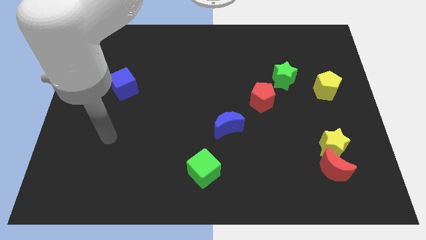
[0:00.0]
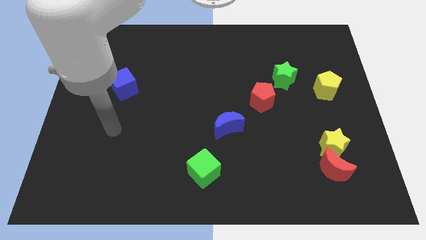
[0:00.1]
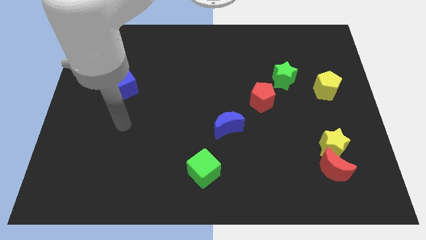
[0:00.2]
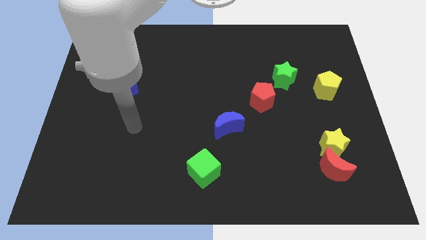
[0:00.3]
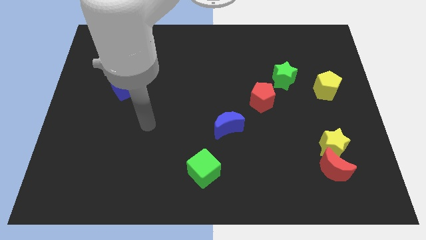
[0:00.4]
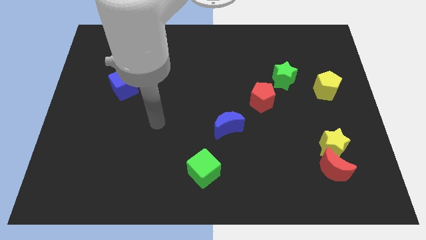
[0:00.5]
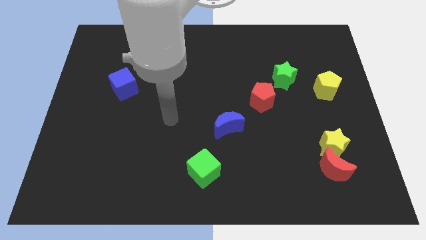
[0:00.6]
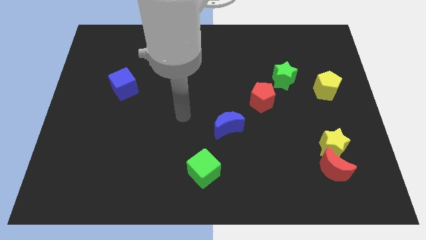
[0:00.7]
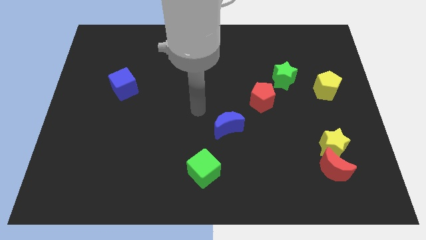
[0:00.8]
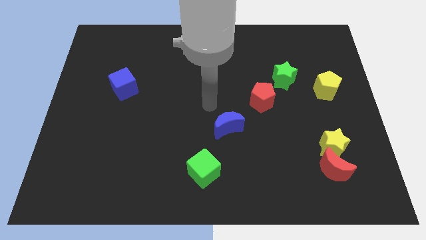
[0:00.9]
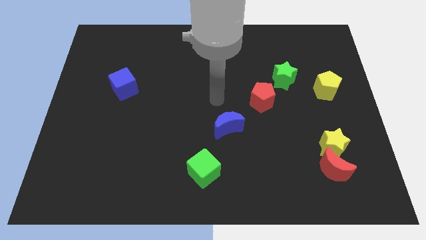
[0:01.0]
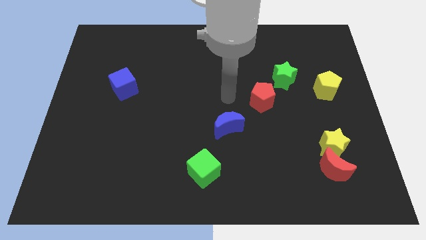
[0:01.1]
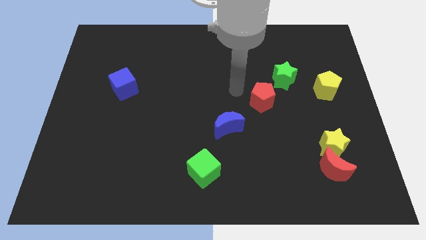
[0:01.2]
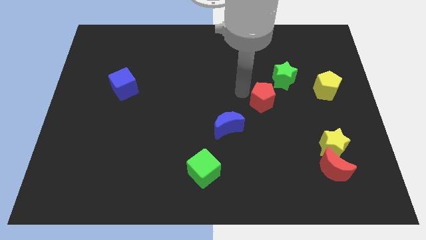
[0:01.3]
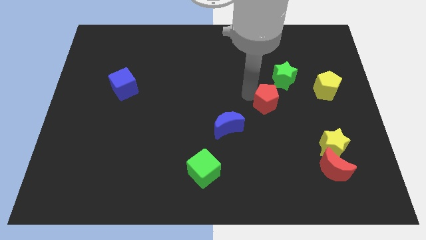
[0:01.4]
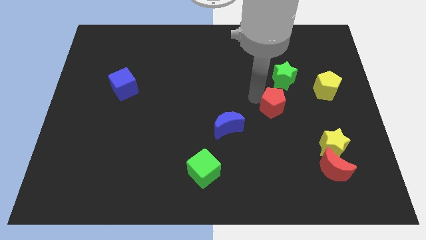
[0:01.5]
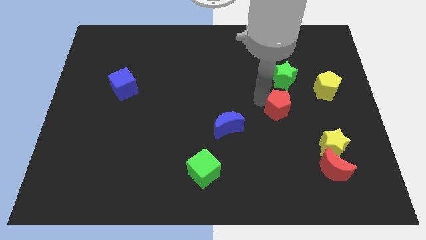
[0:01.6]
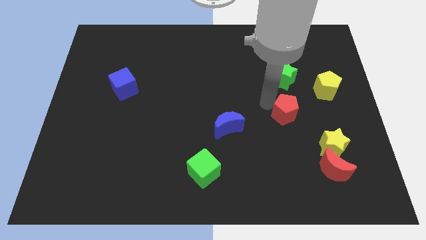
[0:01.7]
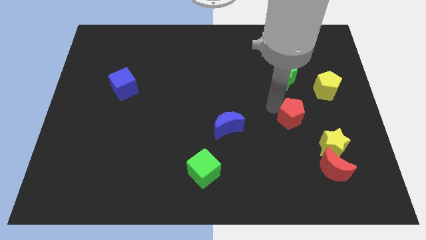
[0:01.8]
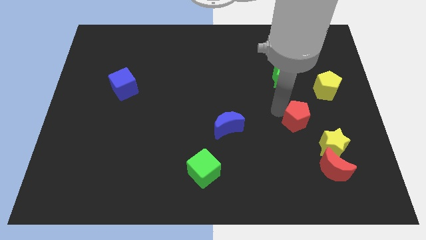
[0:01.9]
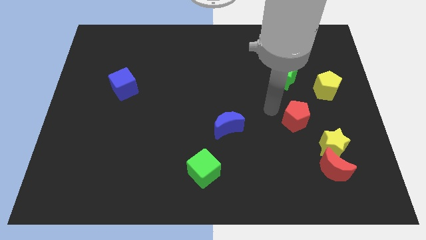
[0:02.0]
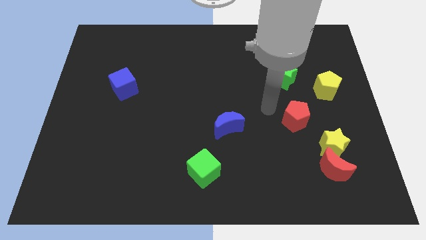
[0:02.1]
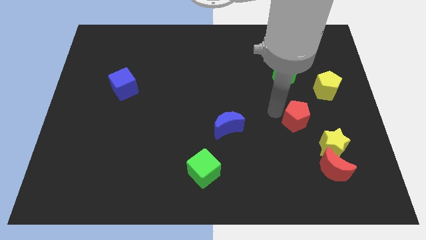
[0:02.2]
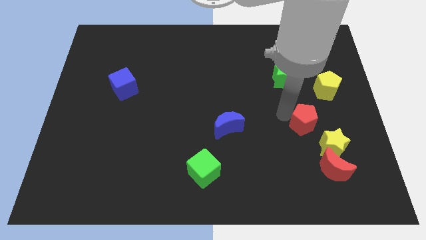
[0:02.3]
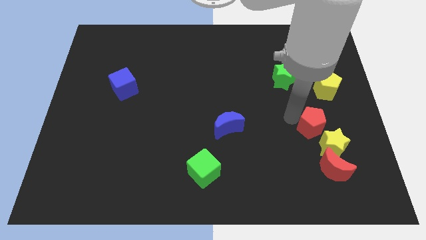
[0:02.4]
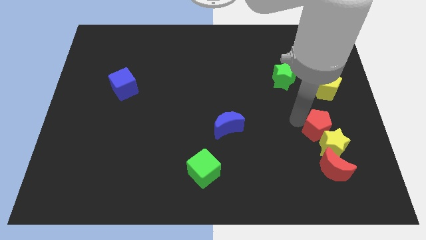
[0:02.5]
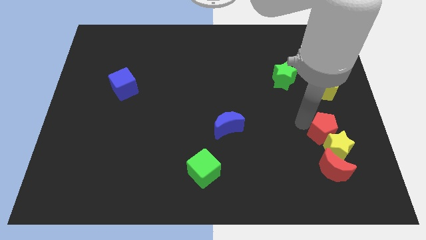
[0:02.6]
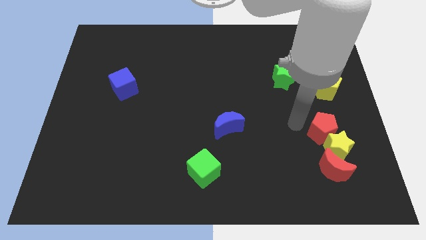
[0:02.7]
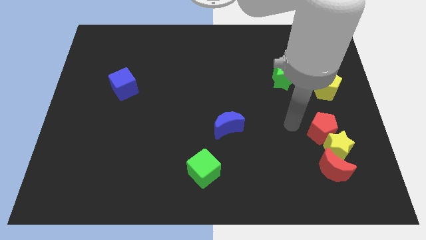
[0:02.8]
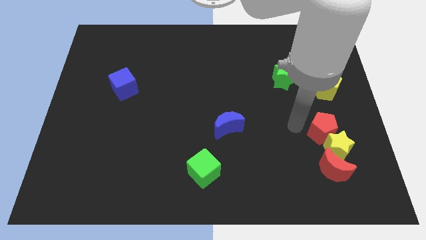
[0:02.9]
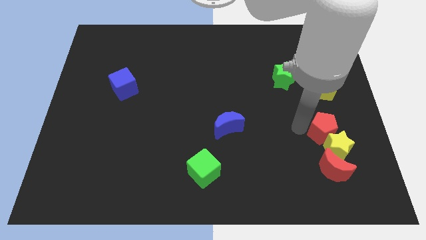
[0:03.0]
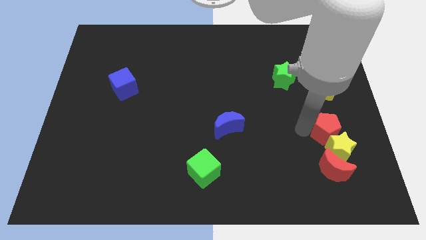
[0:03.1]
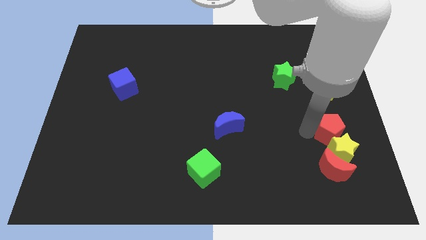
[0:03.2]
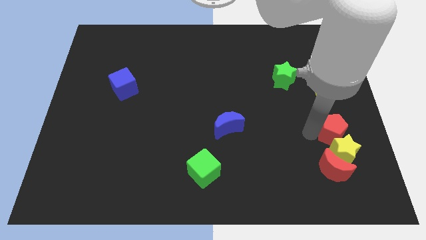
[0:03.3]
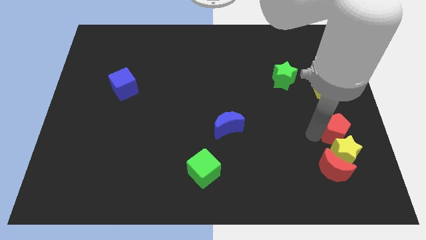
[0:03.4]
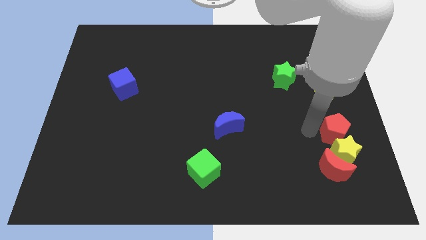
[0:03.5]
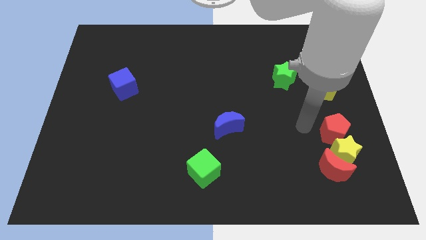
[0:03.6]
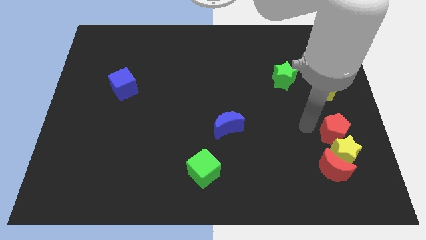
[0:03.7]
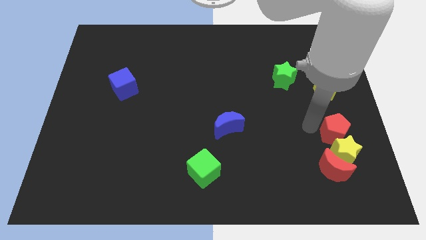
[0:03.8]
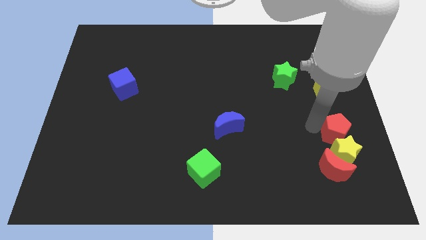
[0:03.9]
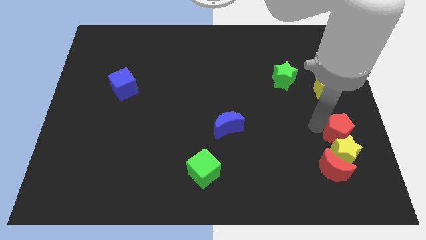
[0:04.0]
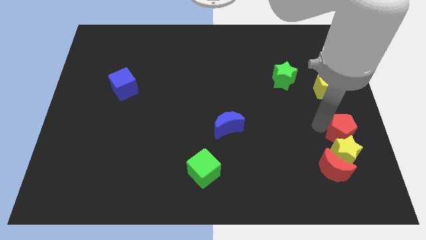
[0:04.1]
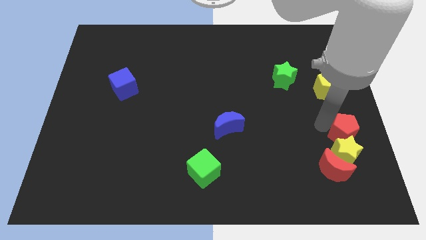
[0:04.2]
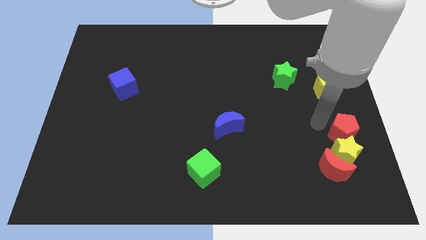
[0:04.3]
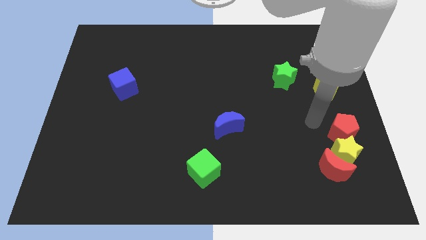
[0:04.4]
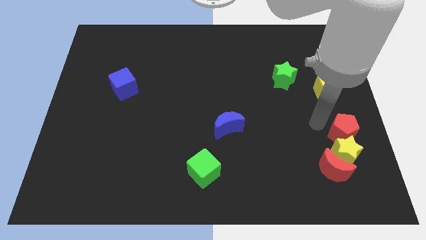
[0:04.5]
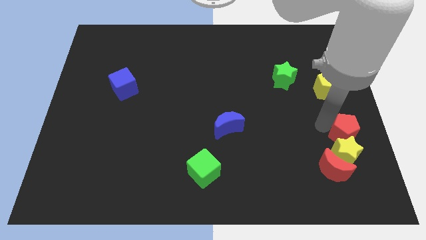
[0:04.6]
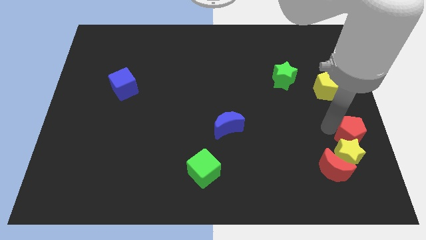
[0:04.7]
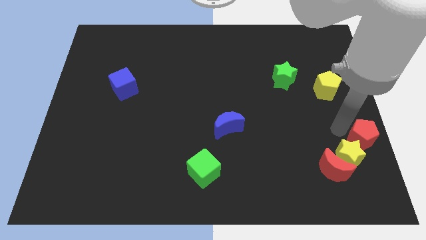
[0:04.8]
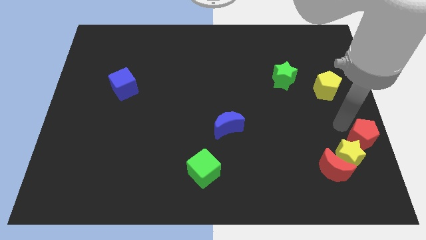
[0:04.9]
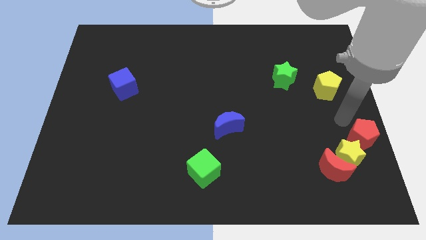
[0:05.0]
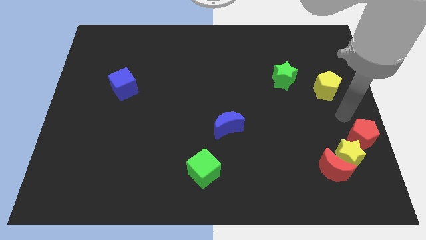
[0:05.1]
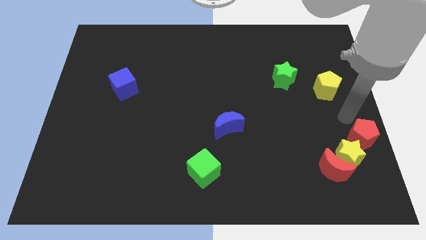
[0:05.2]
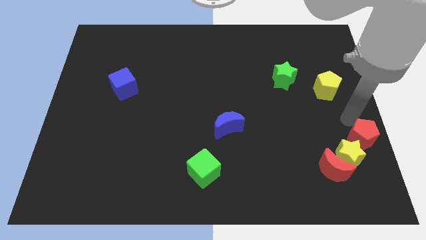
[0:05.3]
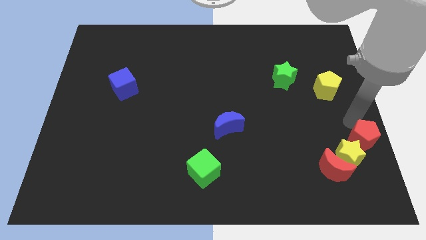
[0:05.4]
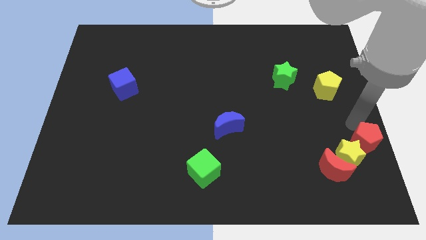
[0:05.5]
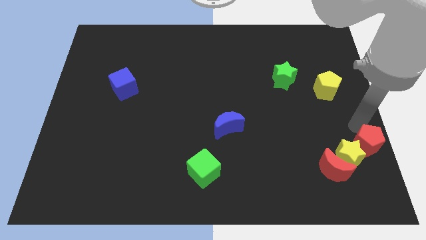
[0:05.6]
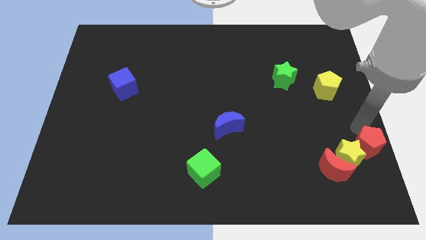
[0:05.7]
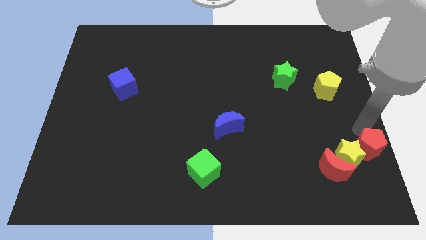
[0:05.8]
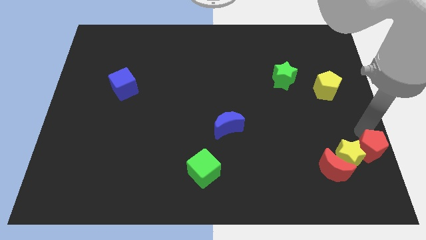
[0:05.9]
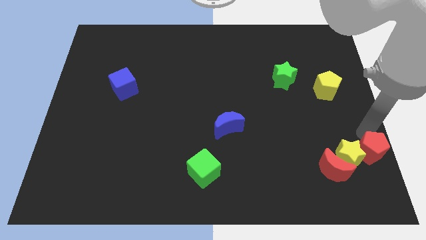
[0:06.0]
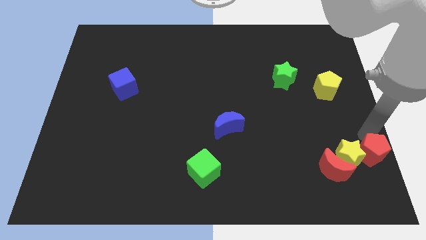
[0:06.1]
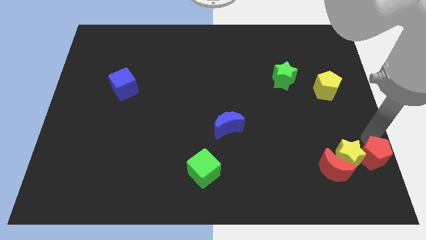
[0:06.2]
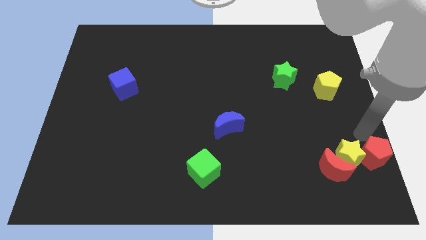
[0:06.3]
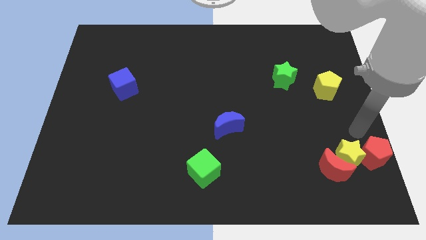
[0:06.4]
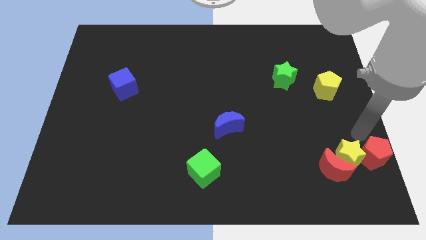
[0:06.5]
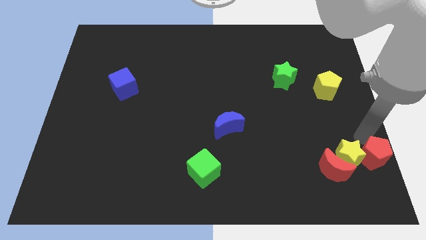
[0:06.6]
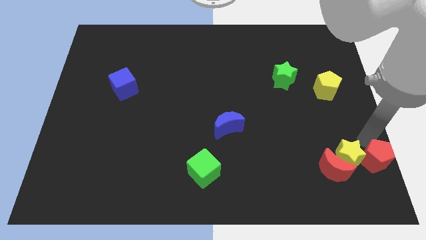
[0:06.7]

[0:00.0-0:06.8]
put the red pentagon to the bottom right corner
